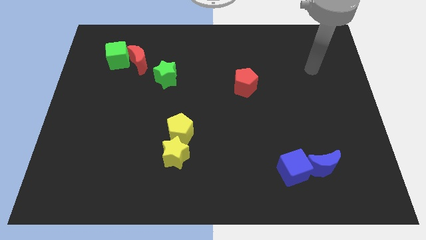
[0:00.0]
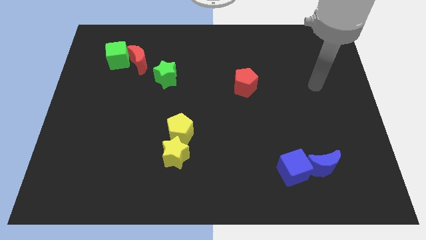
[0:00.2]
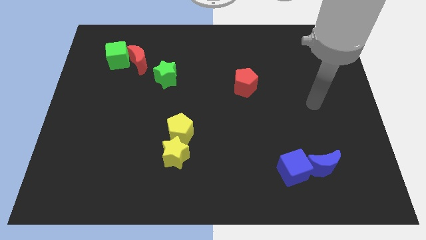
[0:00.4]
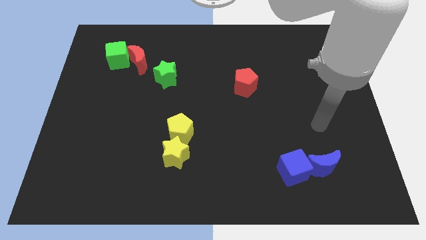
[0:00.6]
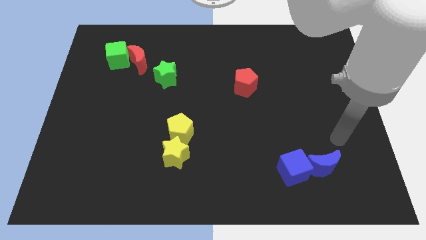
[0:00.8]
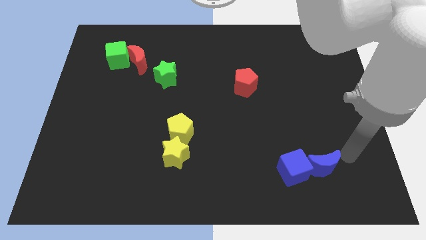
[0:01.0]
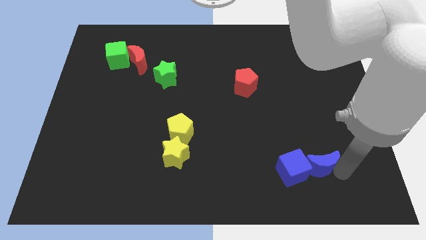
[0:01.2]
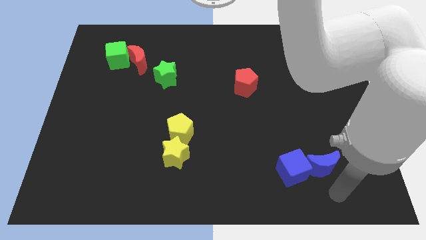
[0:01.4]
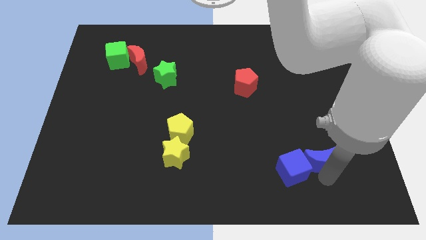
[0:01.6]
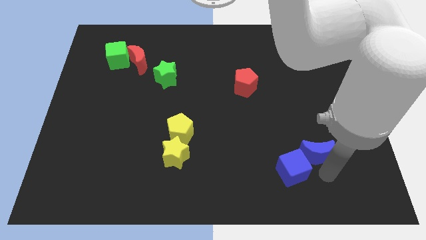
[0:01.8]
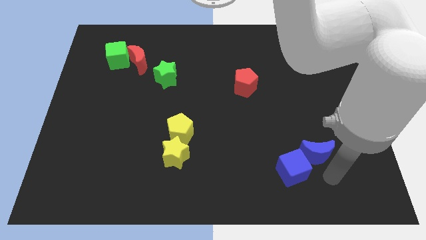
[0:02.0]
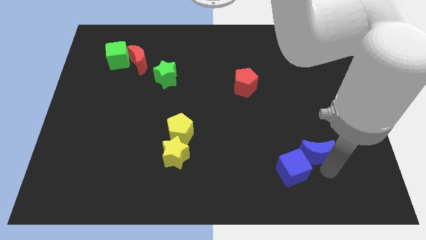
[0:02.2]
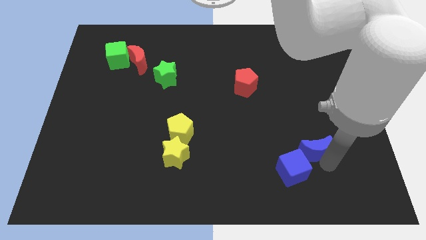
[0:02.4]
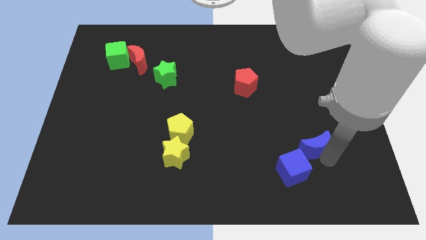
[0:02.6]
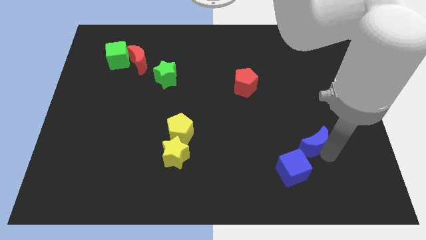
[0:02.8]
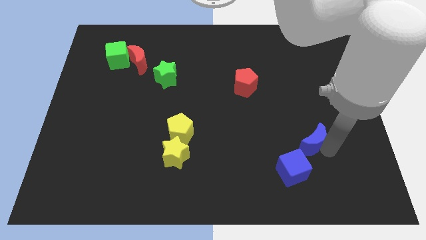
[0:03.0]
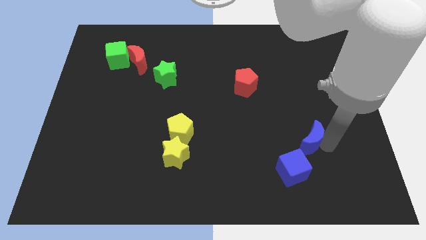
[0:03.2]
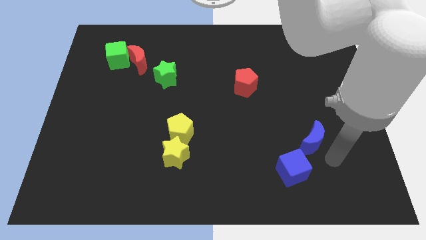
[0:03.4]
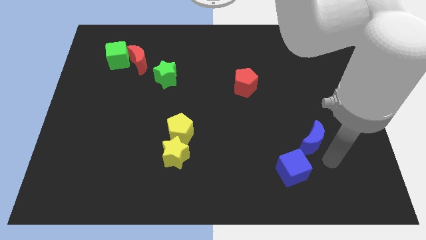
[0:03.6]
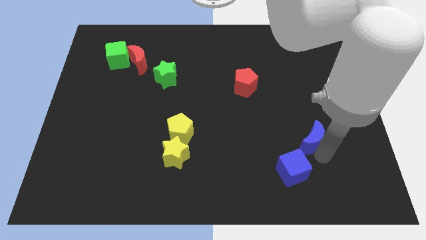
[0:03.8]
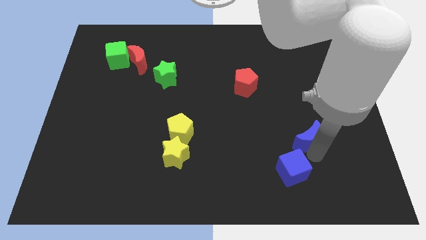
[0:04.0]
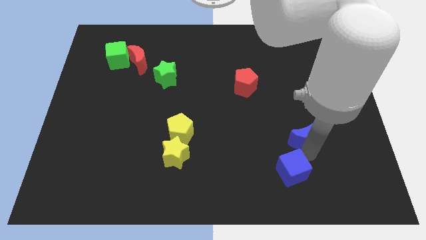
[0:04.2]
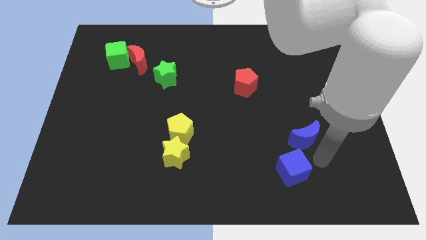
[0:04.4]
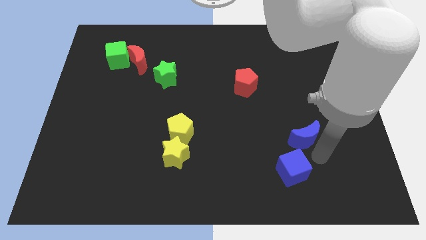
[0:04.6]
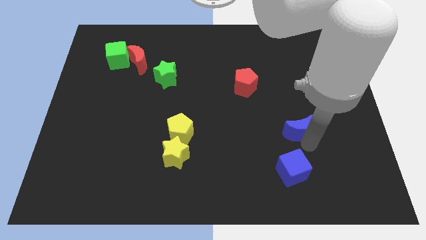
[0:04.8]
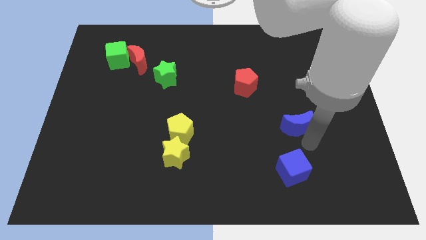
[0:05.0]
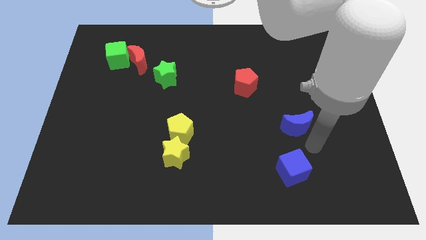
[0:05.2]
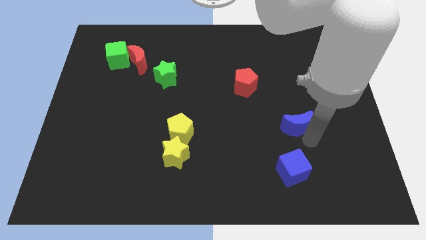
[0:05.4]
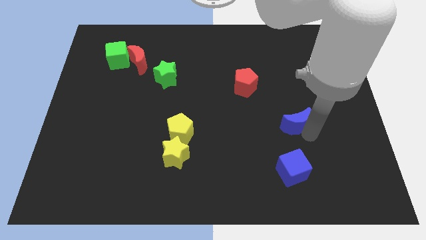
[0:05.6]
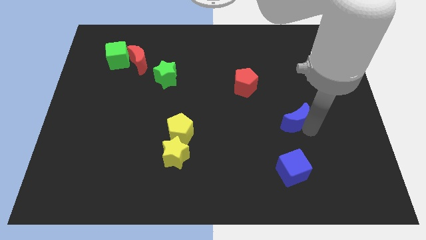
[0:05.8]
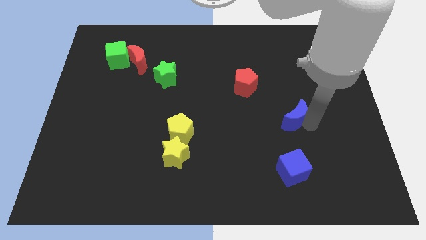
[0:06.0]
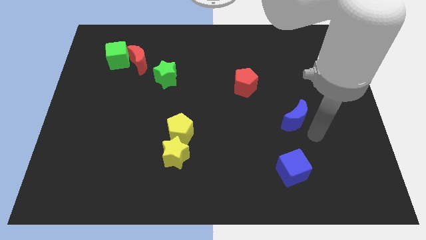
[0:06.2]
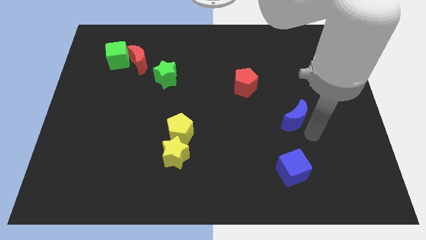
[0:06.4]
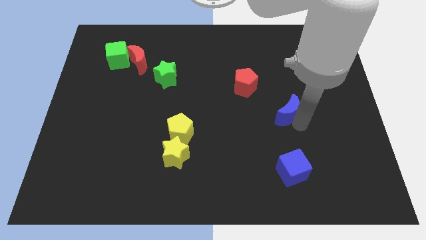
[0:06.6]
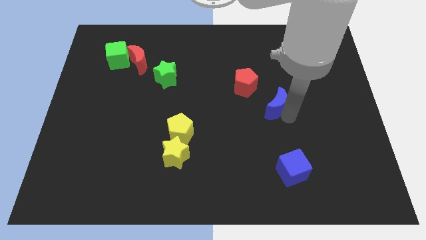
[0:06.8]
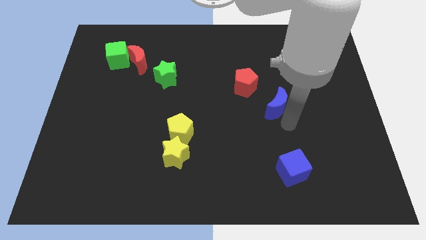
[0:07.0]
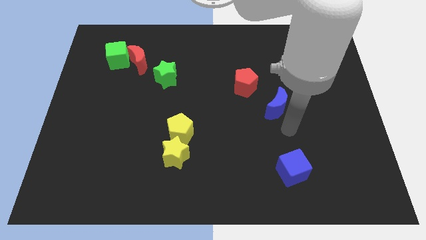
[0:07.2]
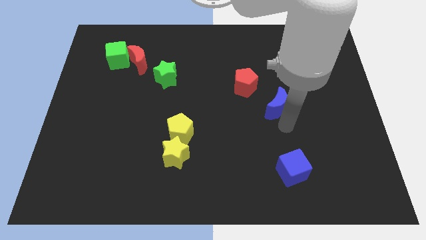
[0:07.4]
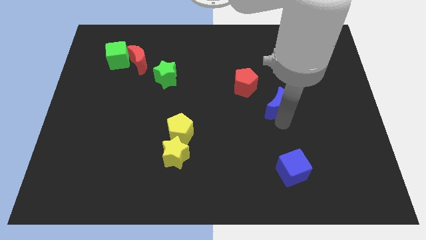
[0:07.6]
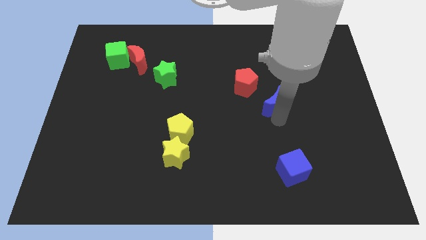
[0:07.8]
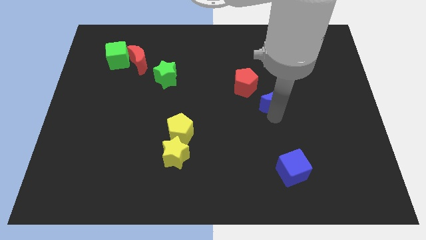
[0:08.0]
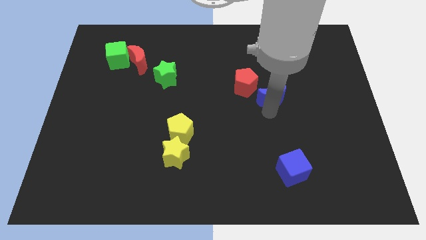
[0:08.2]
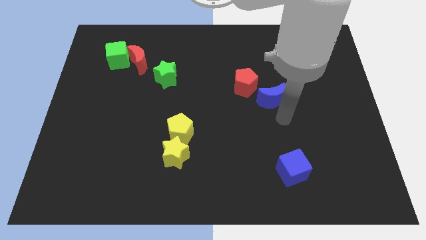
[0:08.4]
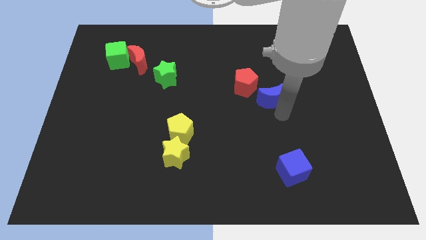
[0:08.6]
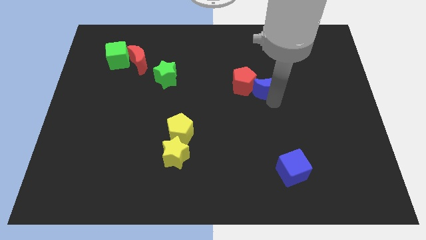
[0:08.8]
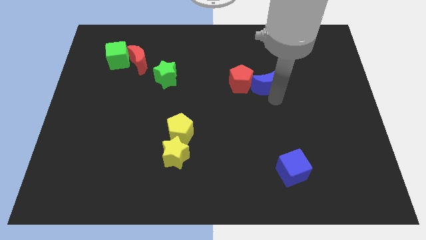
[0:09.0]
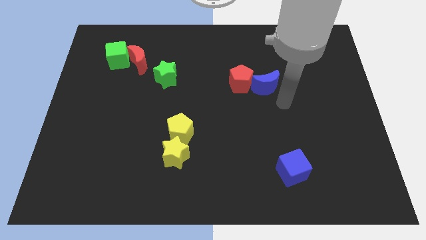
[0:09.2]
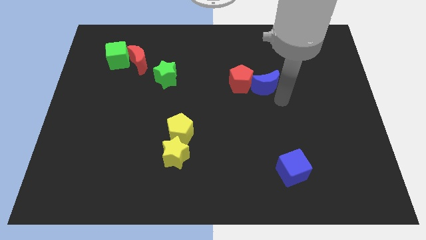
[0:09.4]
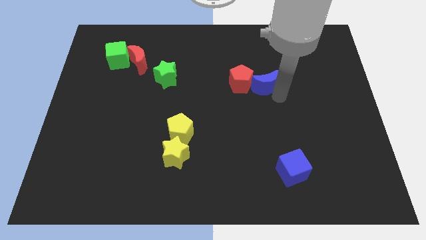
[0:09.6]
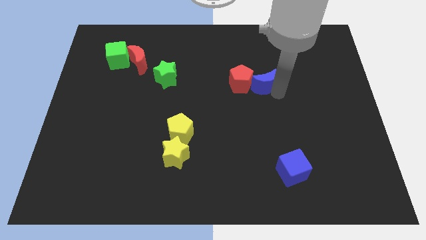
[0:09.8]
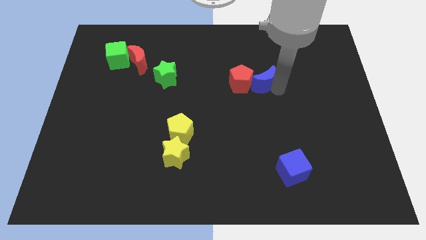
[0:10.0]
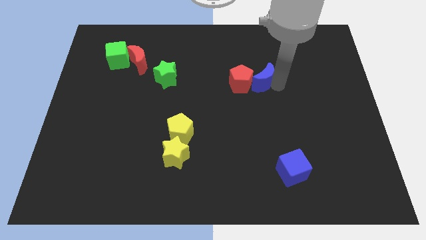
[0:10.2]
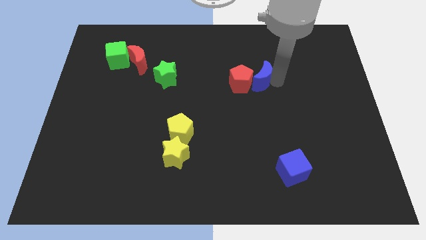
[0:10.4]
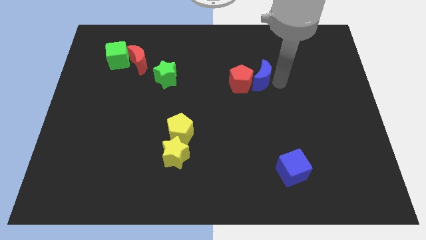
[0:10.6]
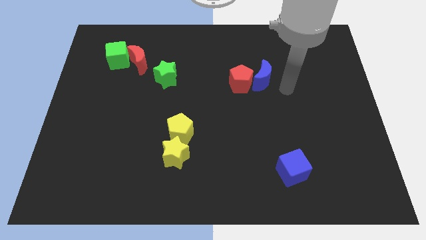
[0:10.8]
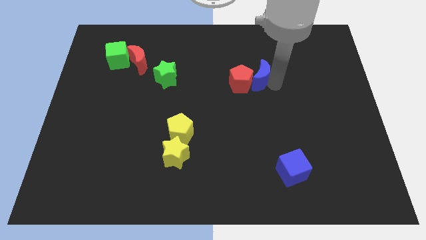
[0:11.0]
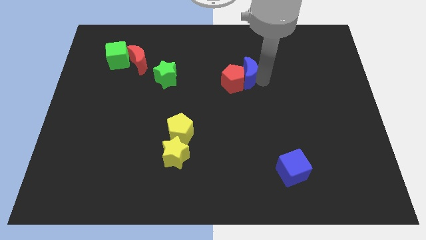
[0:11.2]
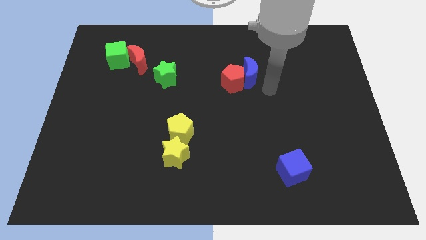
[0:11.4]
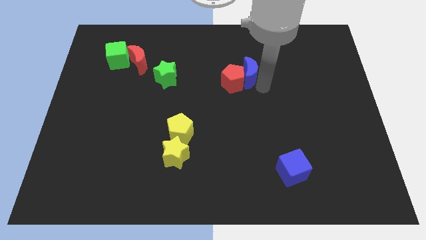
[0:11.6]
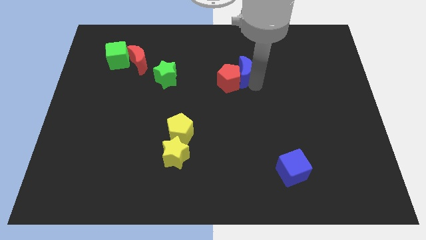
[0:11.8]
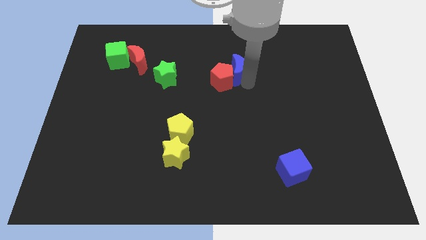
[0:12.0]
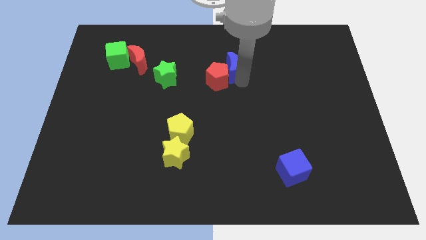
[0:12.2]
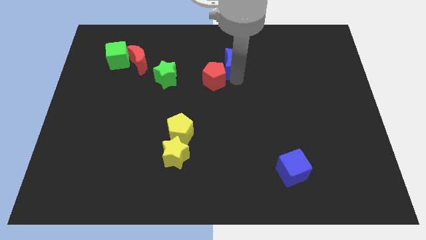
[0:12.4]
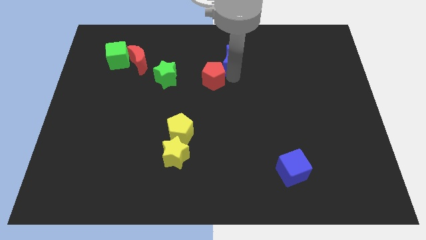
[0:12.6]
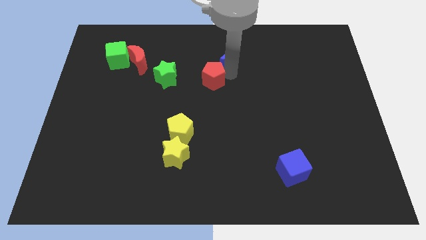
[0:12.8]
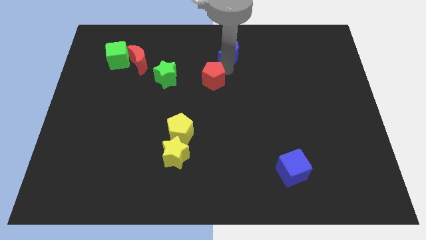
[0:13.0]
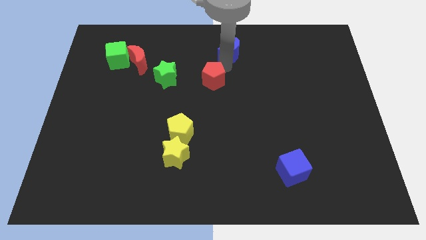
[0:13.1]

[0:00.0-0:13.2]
move the blue moon to the top side

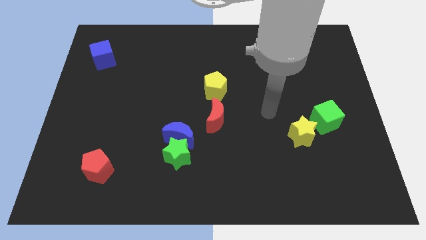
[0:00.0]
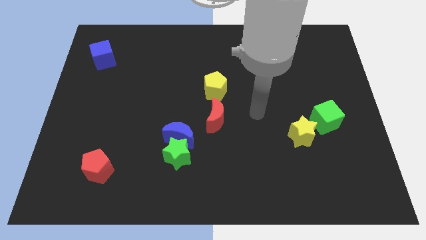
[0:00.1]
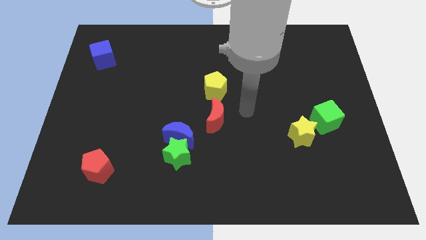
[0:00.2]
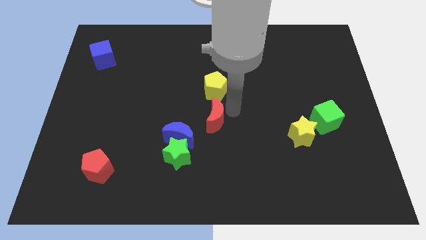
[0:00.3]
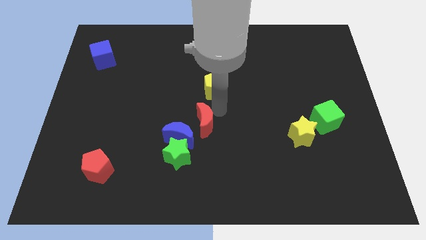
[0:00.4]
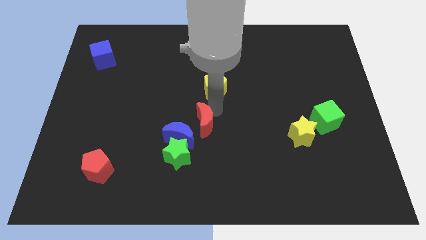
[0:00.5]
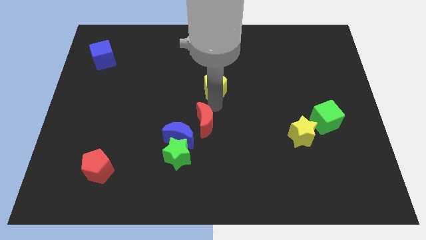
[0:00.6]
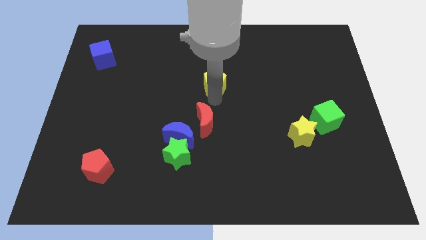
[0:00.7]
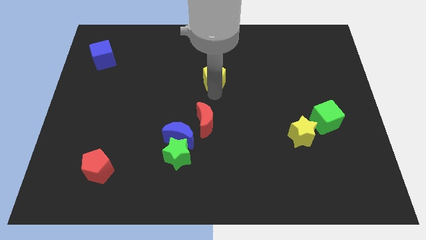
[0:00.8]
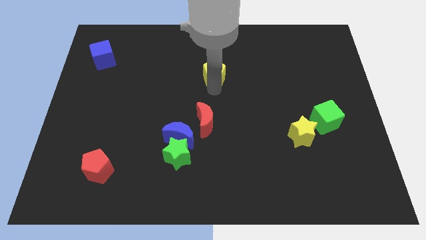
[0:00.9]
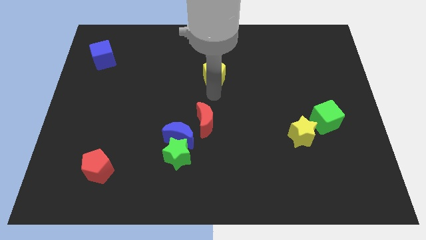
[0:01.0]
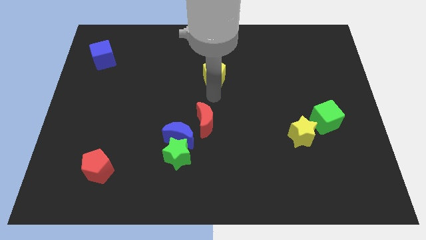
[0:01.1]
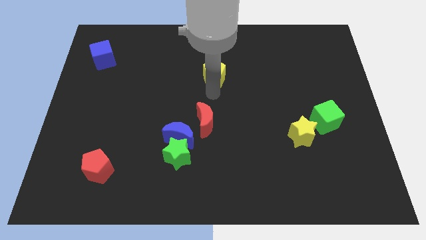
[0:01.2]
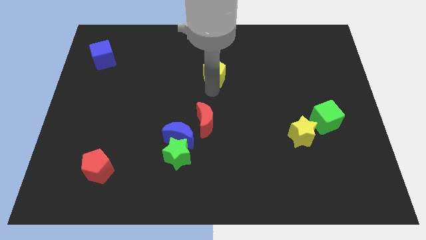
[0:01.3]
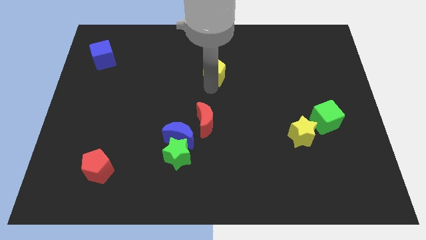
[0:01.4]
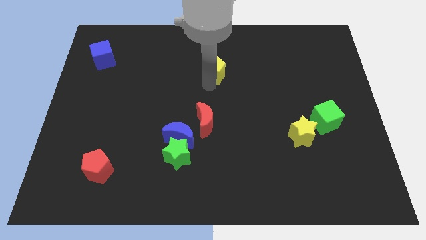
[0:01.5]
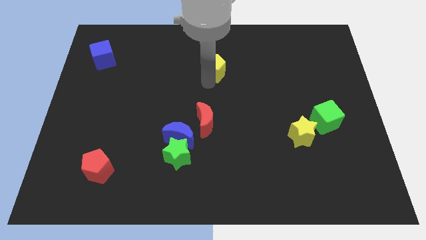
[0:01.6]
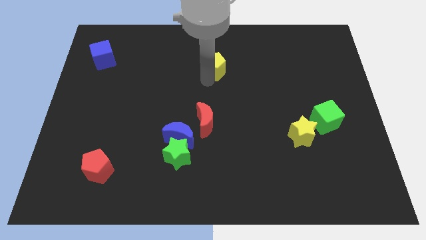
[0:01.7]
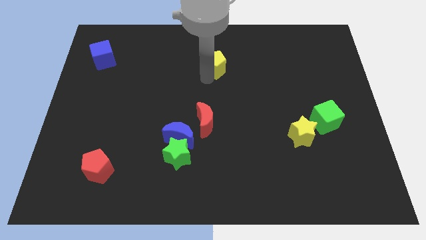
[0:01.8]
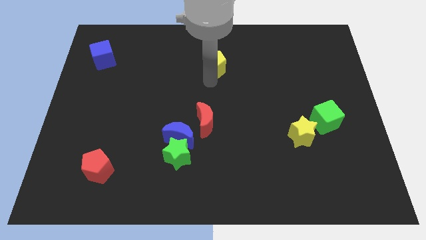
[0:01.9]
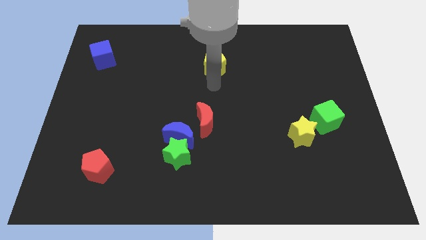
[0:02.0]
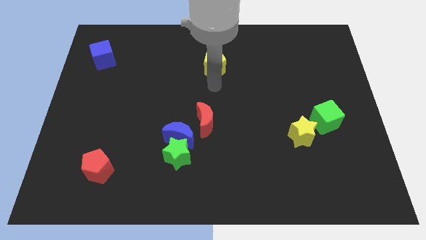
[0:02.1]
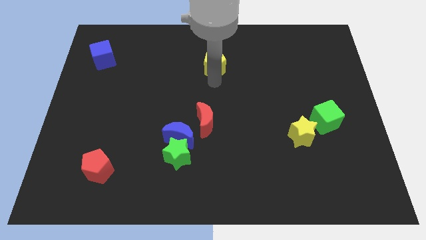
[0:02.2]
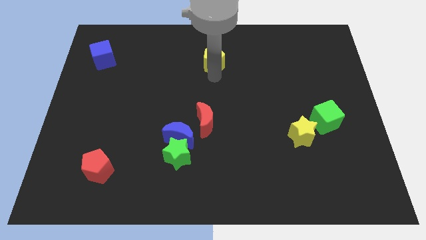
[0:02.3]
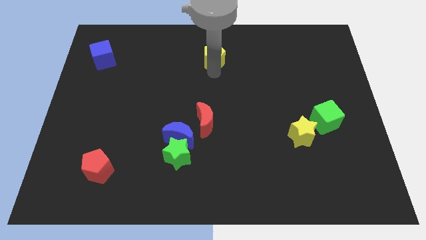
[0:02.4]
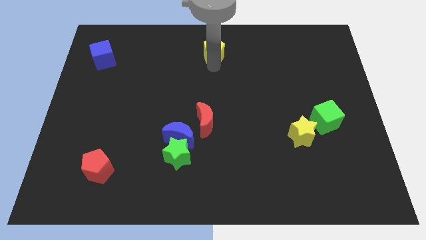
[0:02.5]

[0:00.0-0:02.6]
move the yellow pentagon to the towards your base
